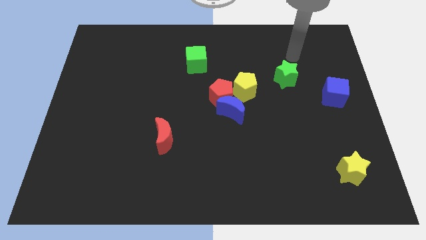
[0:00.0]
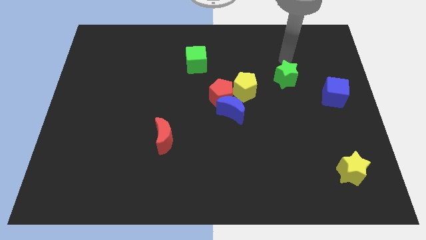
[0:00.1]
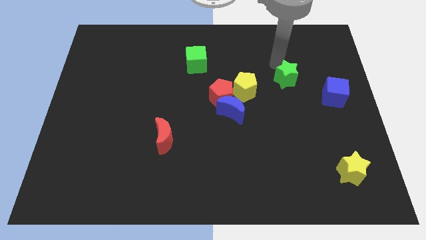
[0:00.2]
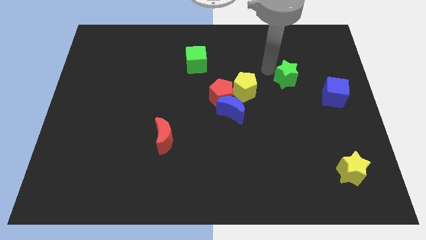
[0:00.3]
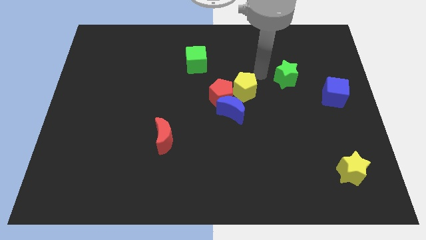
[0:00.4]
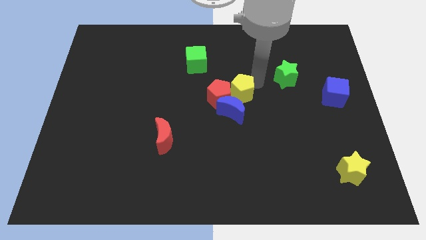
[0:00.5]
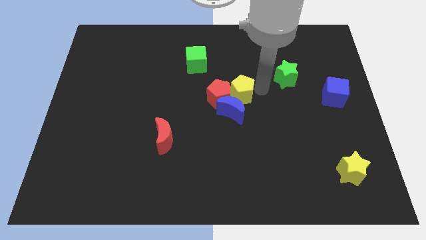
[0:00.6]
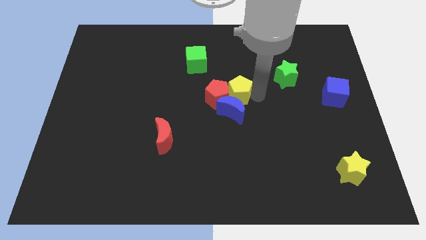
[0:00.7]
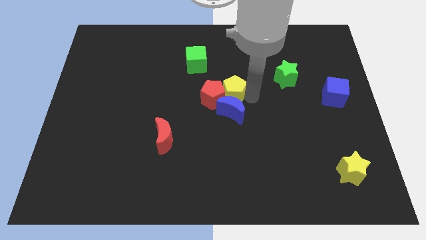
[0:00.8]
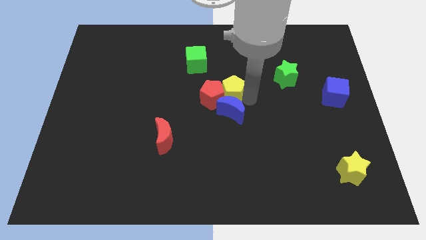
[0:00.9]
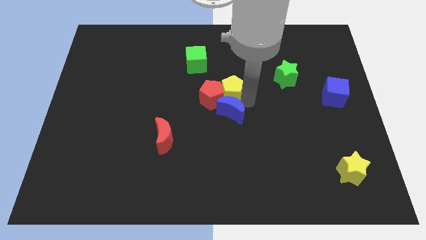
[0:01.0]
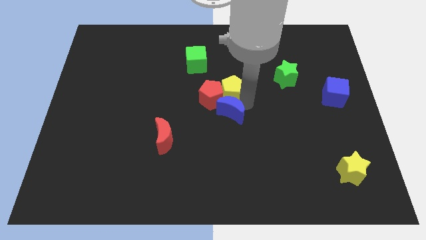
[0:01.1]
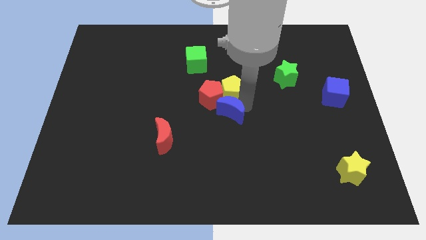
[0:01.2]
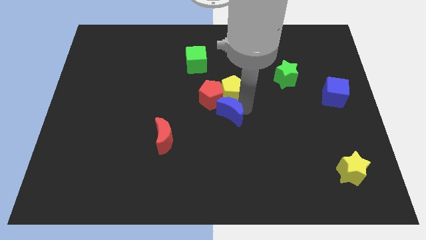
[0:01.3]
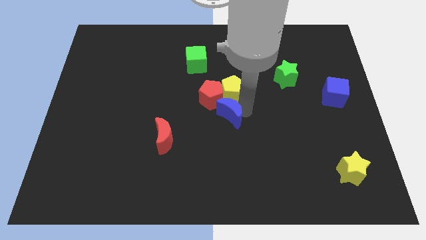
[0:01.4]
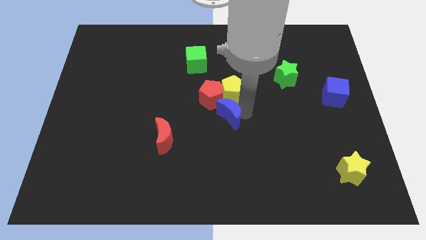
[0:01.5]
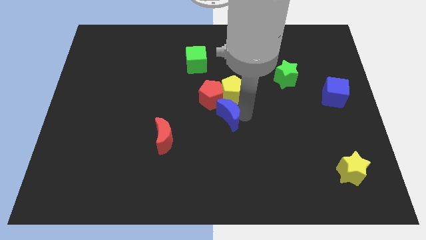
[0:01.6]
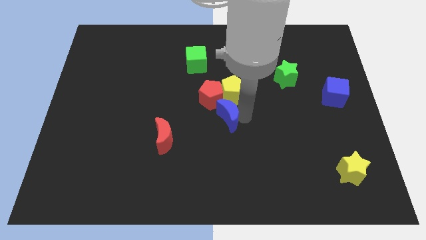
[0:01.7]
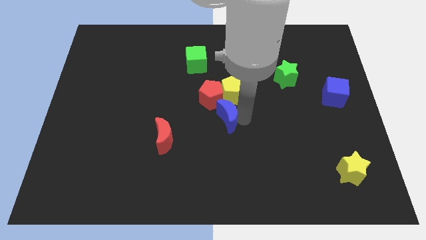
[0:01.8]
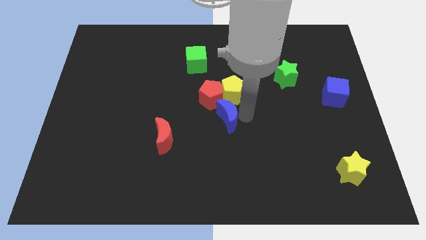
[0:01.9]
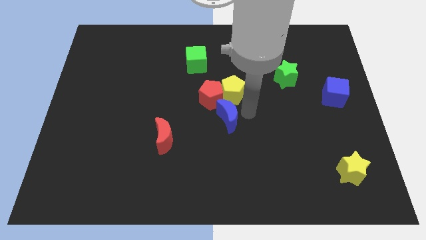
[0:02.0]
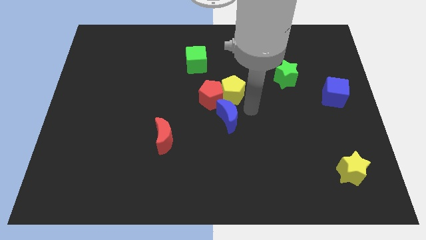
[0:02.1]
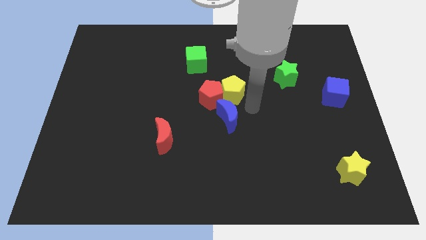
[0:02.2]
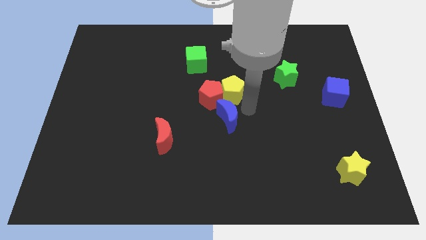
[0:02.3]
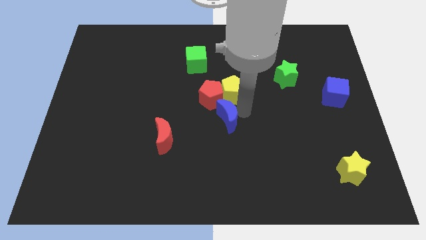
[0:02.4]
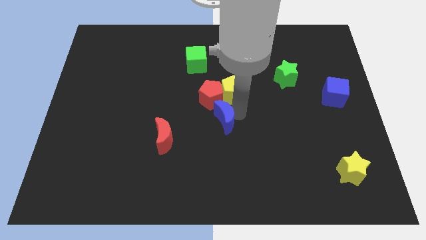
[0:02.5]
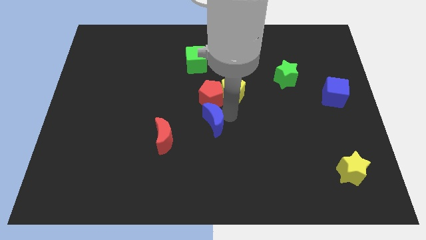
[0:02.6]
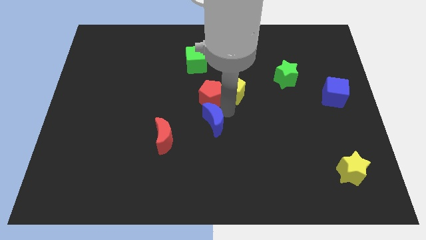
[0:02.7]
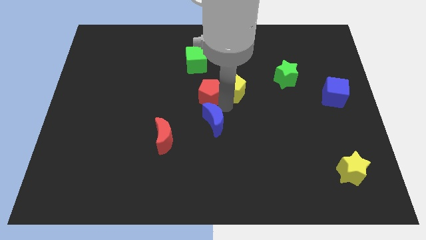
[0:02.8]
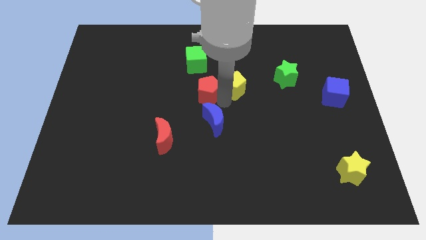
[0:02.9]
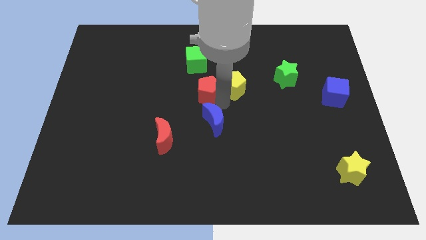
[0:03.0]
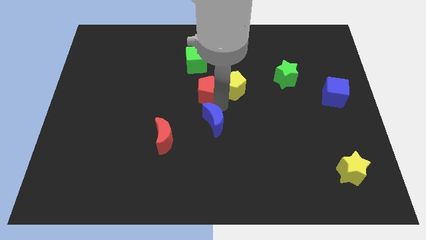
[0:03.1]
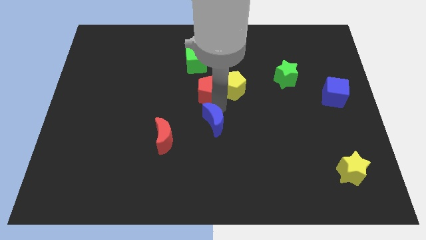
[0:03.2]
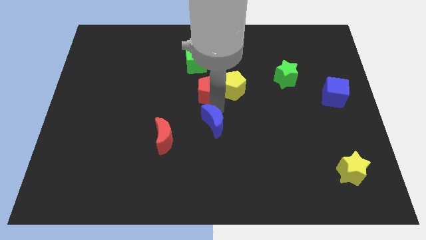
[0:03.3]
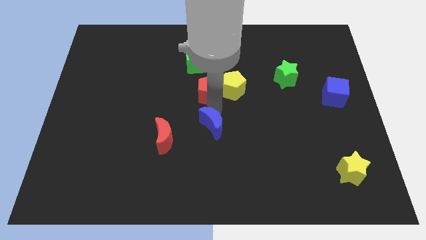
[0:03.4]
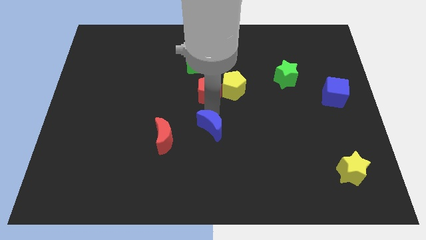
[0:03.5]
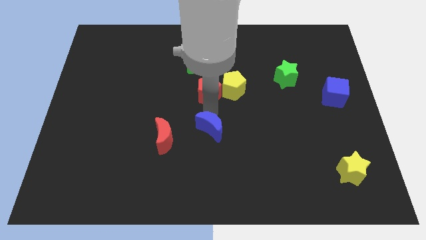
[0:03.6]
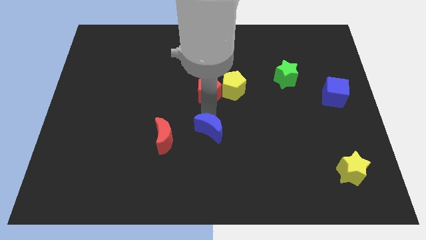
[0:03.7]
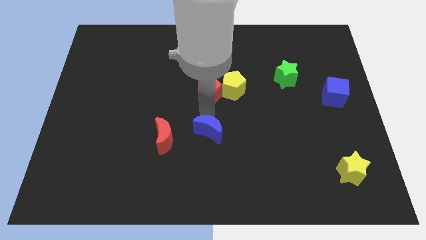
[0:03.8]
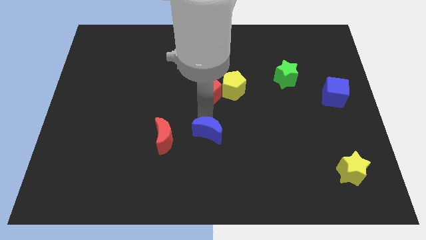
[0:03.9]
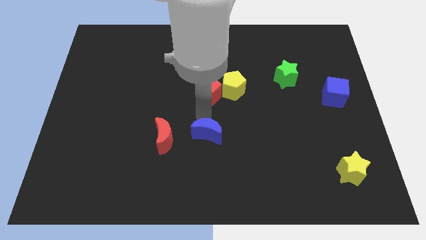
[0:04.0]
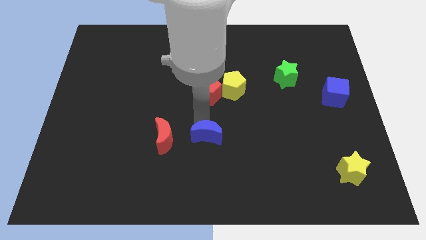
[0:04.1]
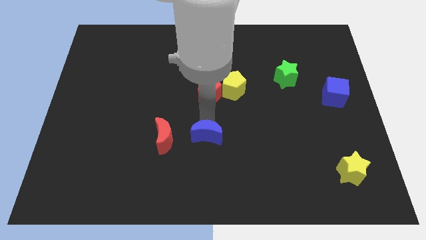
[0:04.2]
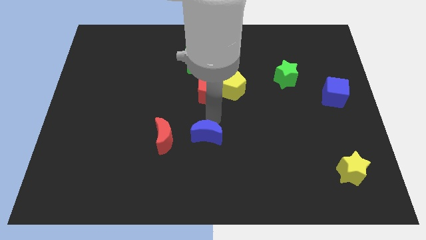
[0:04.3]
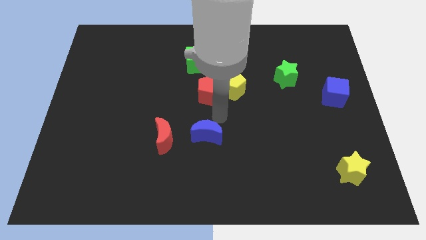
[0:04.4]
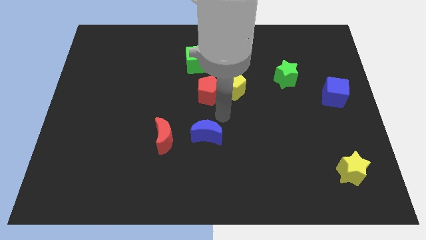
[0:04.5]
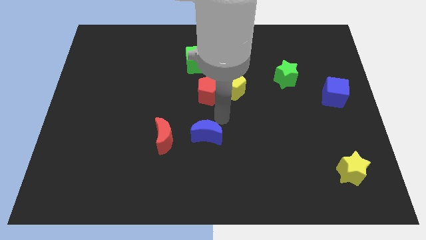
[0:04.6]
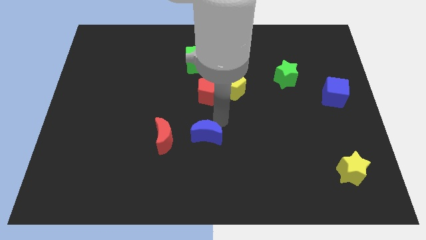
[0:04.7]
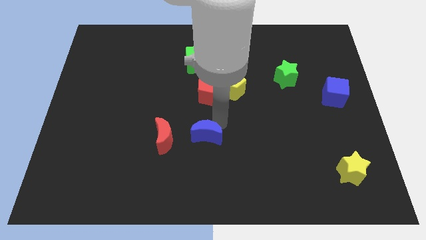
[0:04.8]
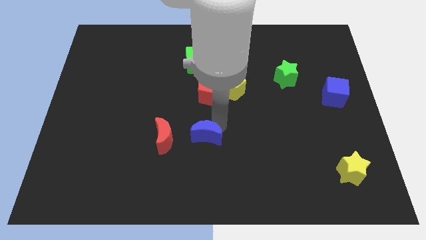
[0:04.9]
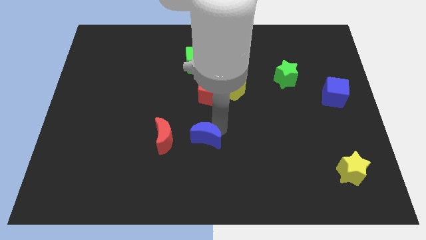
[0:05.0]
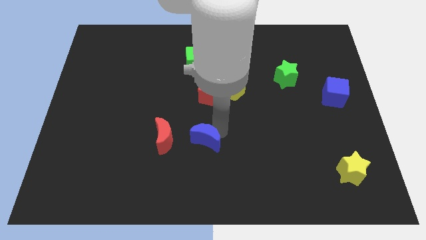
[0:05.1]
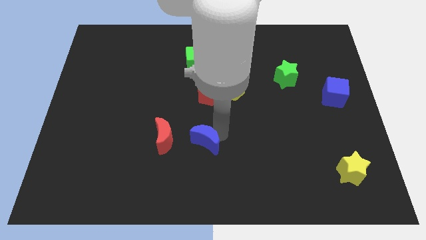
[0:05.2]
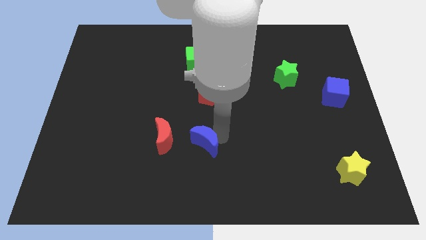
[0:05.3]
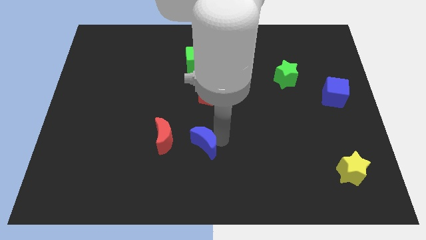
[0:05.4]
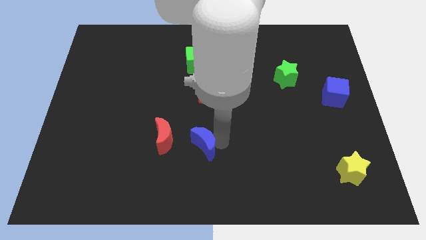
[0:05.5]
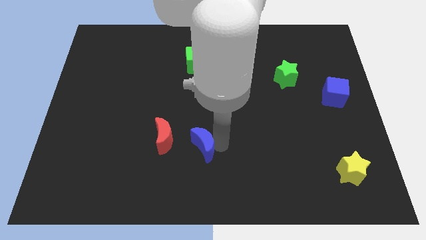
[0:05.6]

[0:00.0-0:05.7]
put the blue moon diagonally down and to the right of the red moon

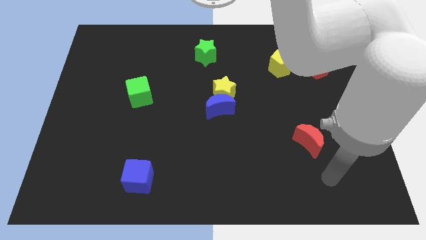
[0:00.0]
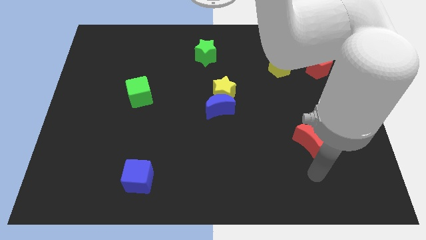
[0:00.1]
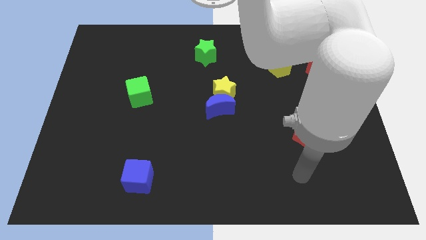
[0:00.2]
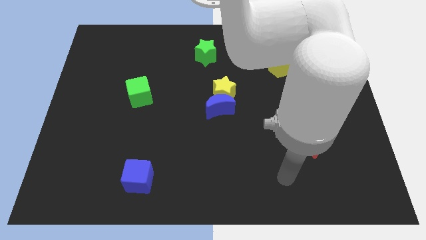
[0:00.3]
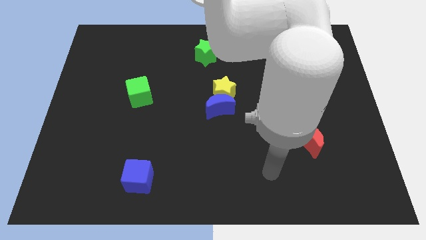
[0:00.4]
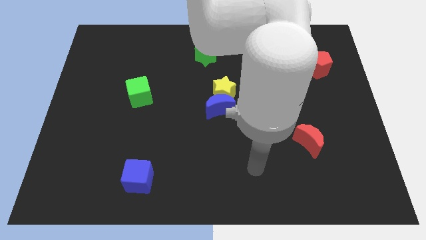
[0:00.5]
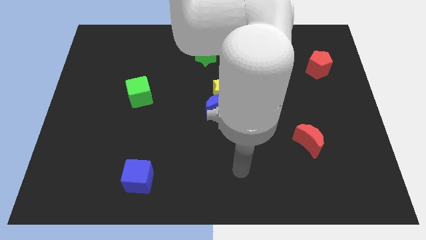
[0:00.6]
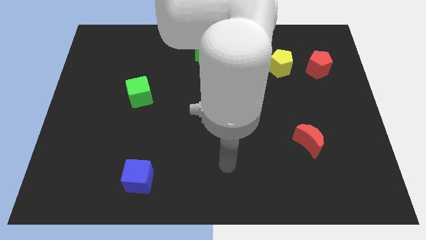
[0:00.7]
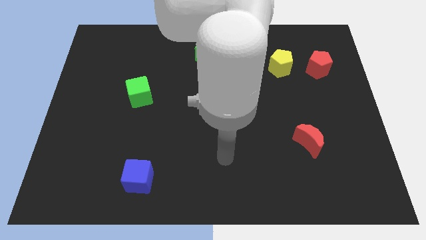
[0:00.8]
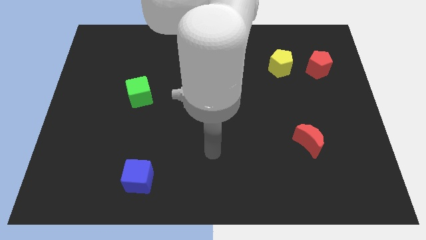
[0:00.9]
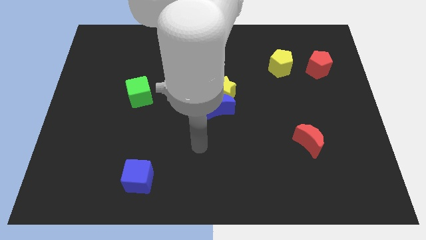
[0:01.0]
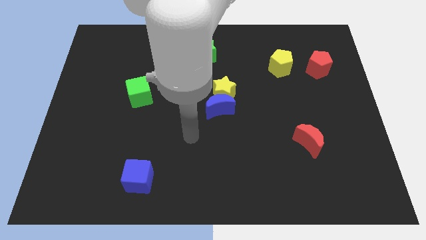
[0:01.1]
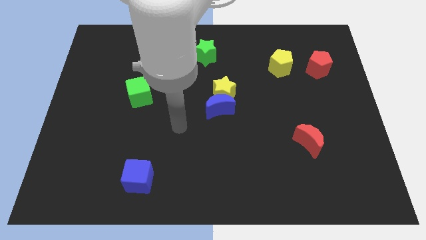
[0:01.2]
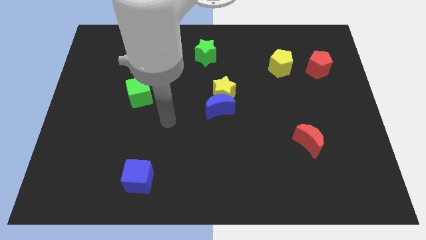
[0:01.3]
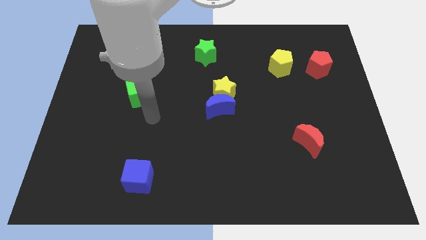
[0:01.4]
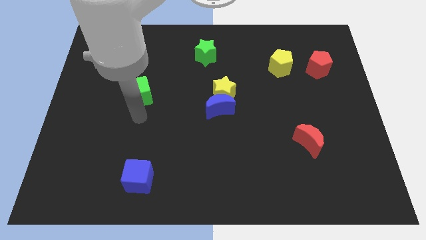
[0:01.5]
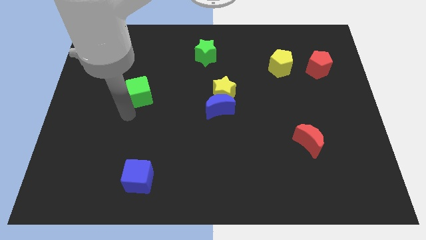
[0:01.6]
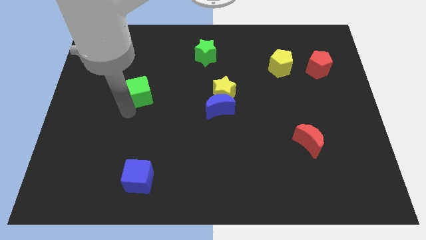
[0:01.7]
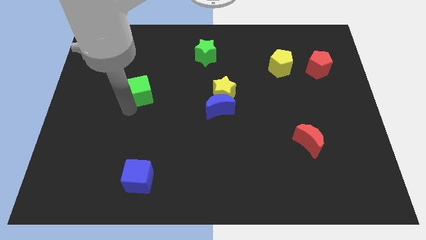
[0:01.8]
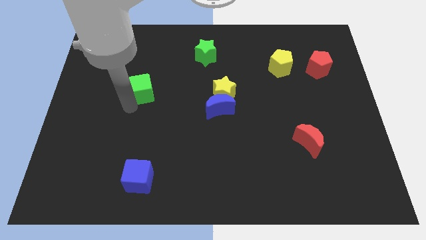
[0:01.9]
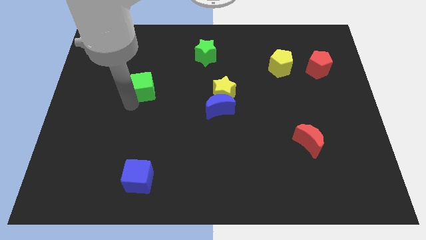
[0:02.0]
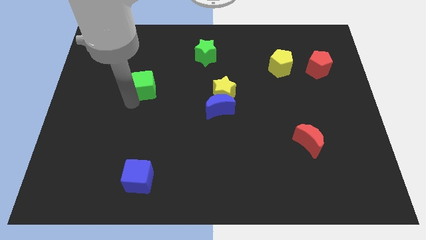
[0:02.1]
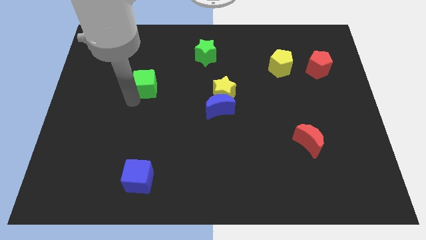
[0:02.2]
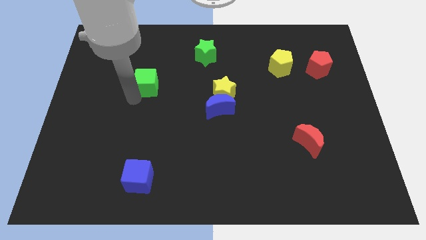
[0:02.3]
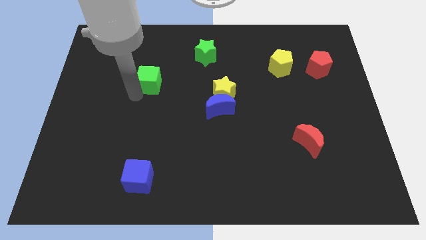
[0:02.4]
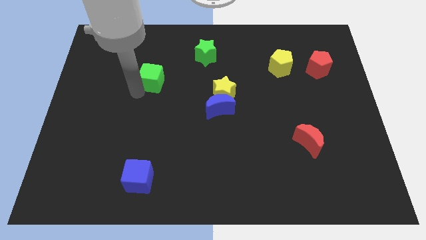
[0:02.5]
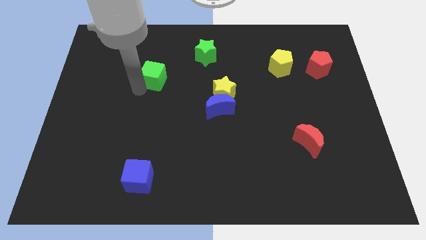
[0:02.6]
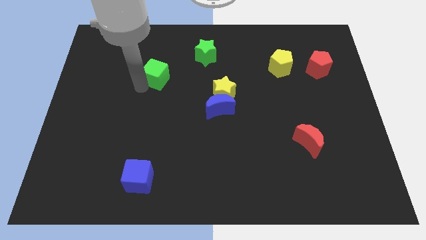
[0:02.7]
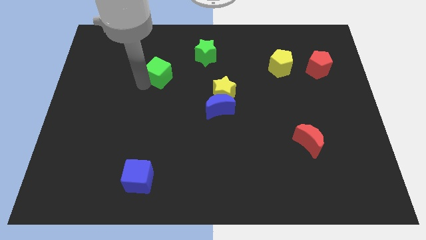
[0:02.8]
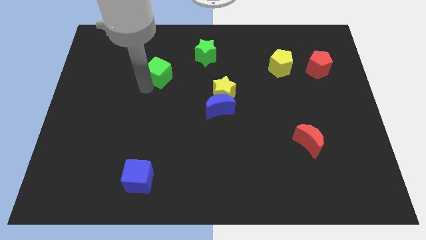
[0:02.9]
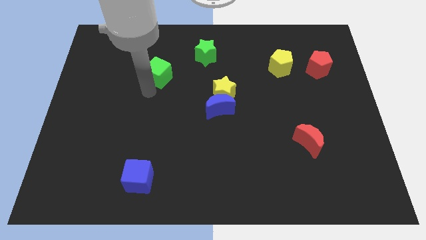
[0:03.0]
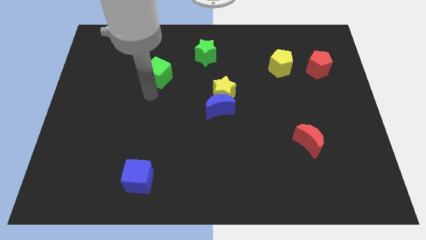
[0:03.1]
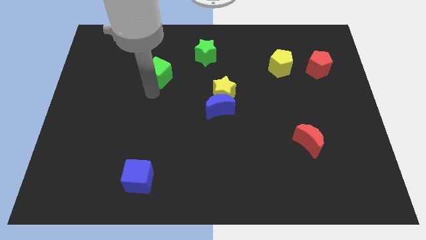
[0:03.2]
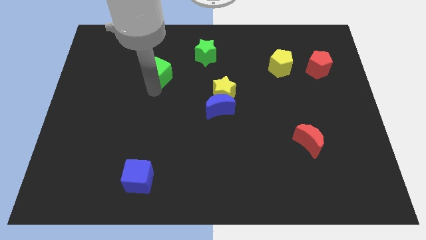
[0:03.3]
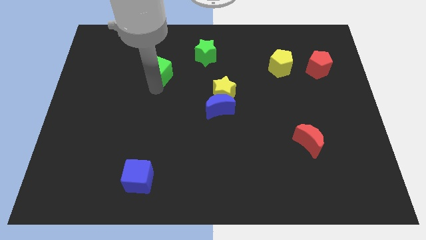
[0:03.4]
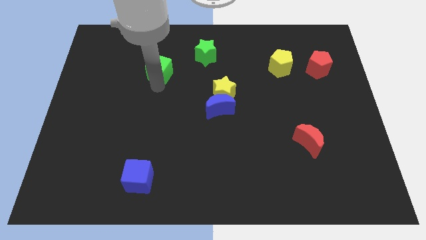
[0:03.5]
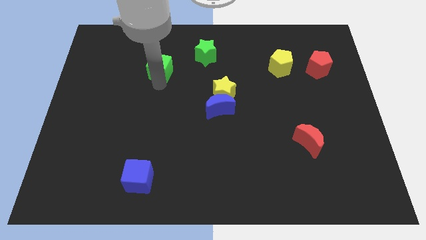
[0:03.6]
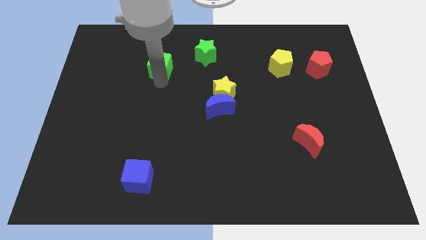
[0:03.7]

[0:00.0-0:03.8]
push the green cube to the left of the green star
